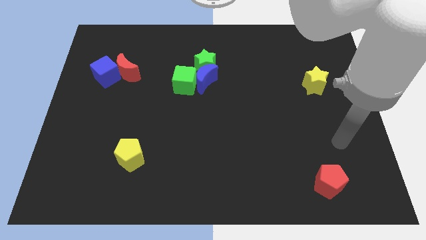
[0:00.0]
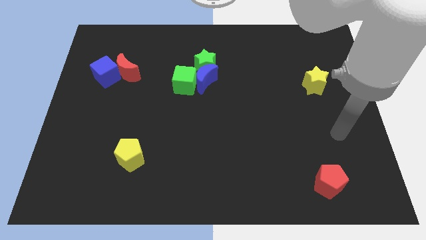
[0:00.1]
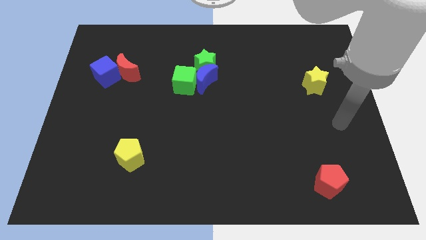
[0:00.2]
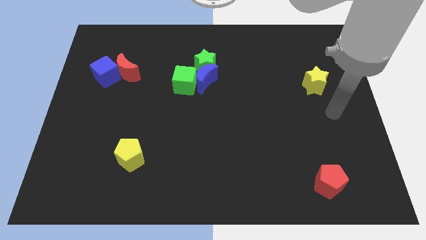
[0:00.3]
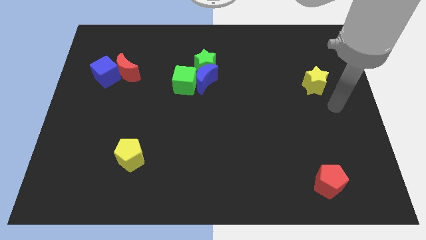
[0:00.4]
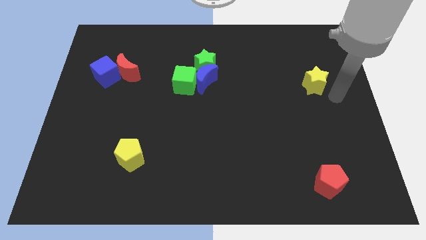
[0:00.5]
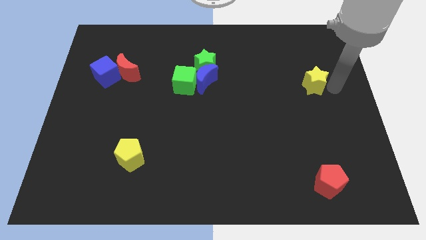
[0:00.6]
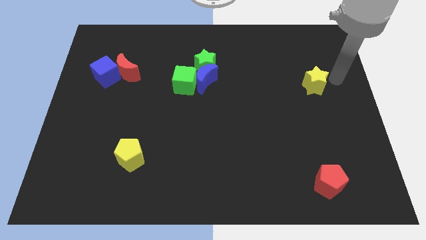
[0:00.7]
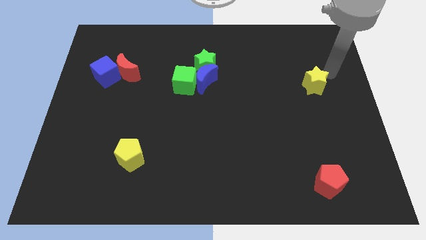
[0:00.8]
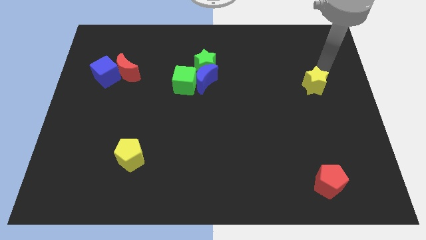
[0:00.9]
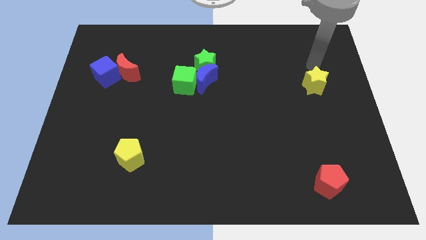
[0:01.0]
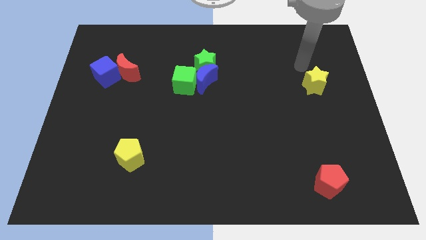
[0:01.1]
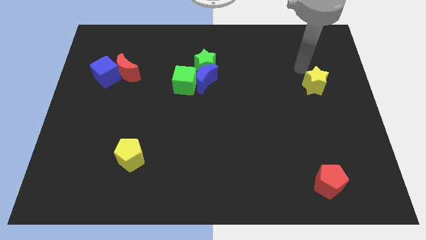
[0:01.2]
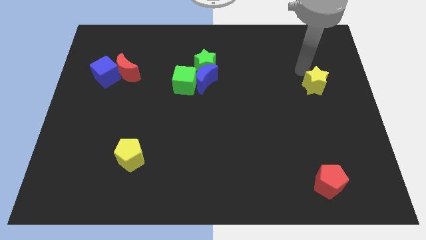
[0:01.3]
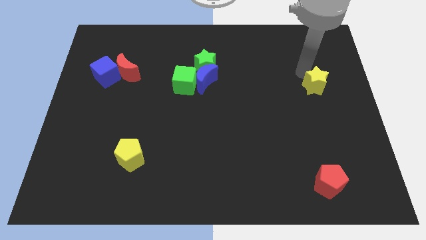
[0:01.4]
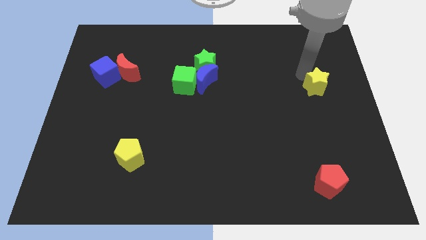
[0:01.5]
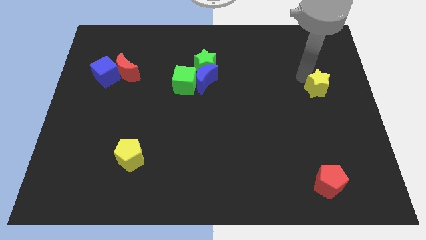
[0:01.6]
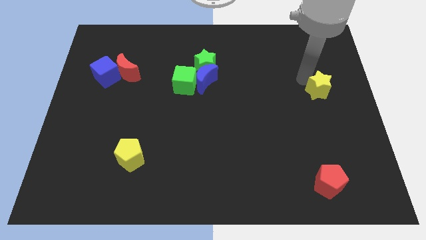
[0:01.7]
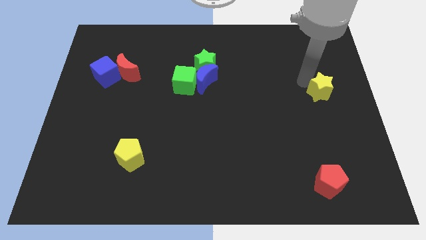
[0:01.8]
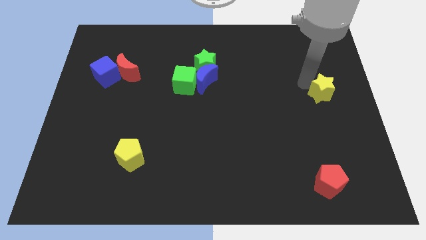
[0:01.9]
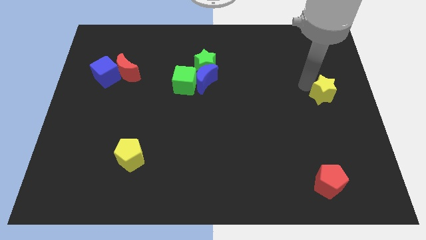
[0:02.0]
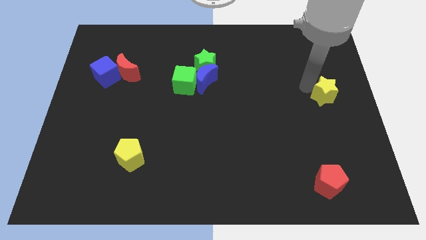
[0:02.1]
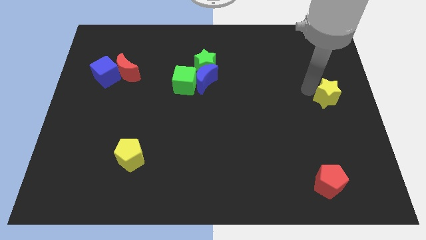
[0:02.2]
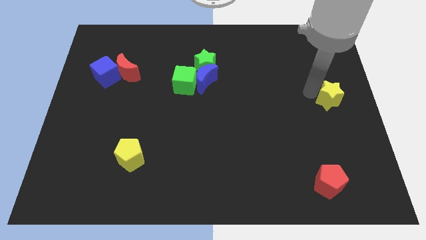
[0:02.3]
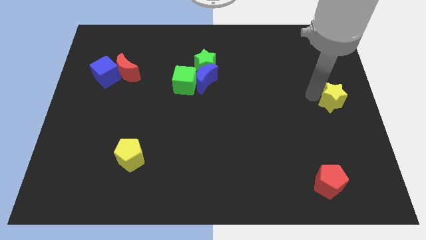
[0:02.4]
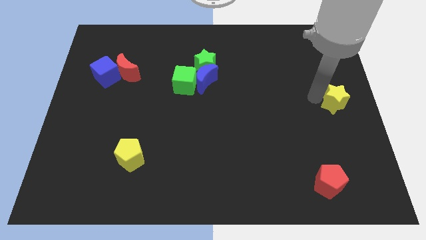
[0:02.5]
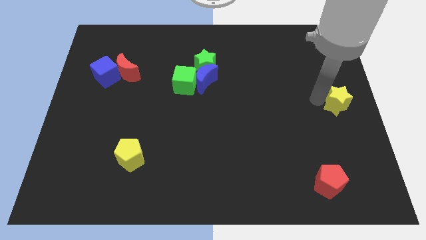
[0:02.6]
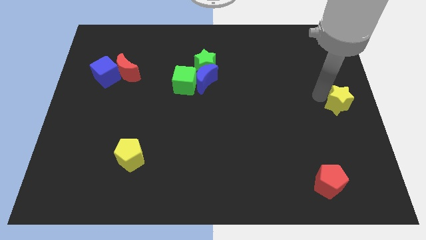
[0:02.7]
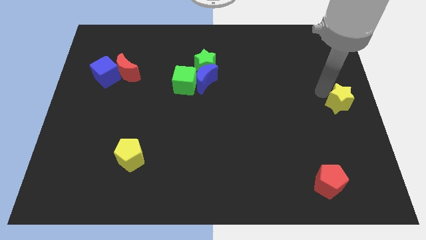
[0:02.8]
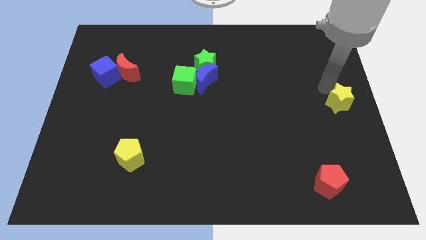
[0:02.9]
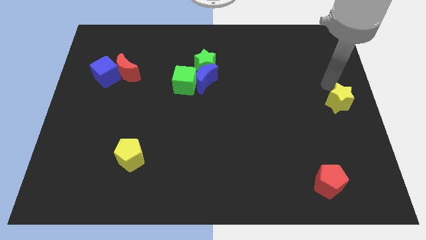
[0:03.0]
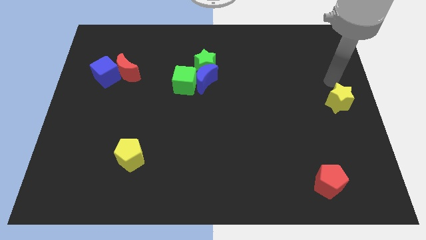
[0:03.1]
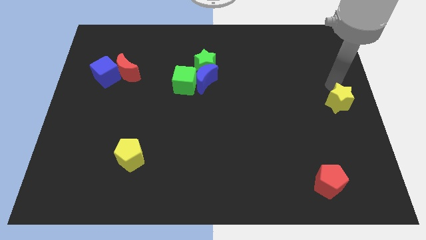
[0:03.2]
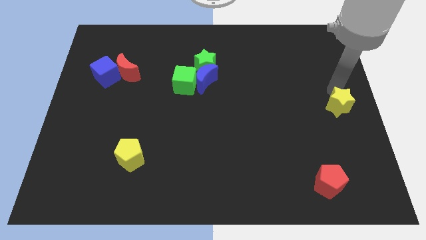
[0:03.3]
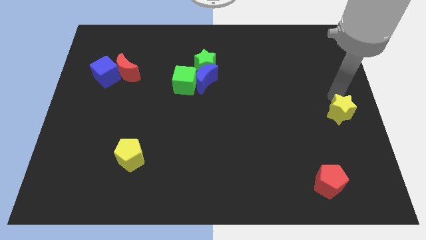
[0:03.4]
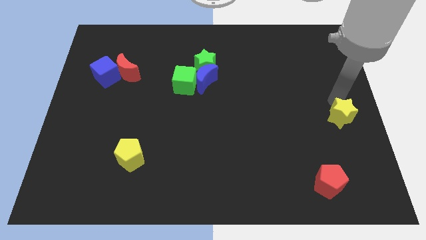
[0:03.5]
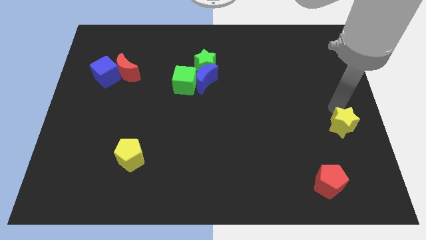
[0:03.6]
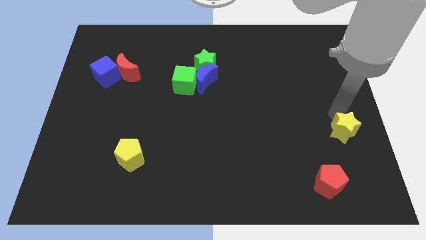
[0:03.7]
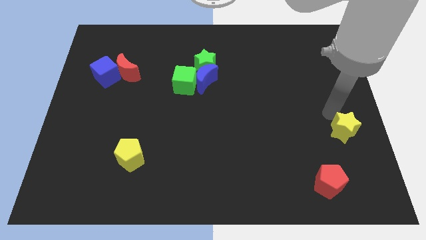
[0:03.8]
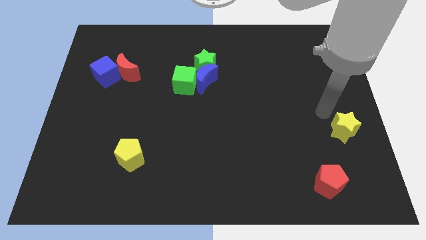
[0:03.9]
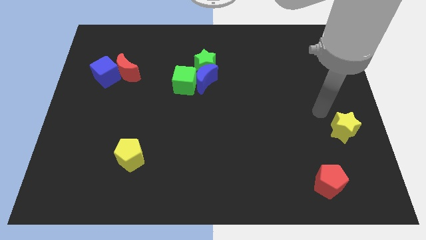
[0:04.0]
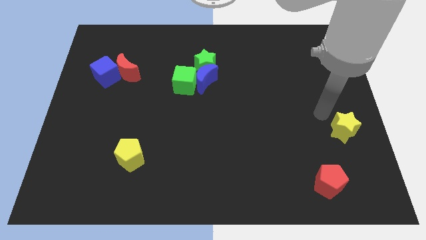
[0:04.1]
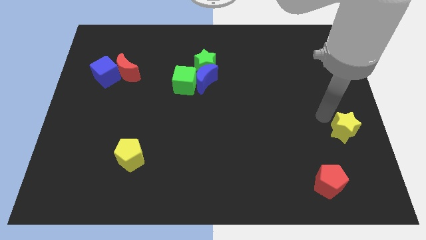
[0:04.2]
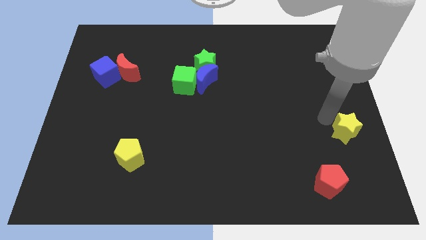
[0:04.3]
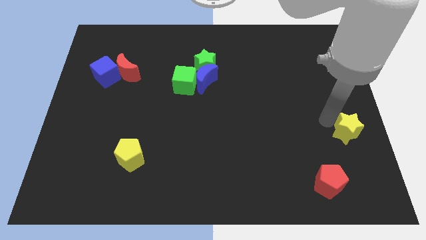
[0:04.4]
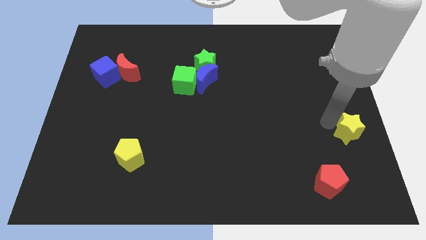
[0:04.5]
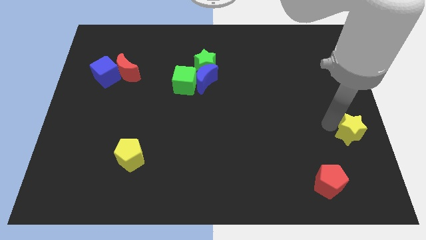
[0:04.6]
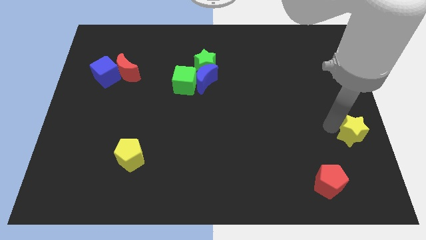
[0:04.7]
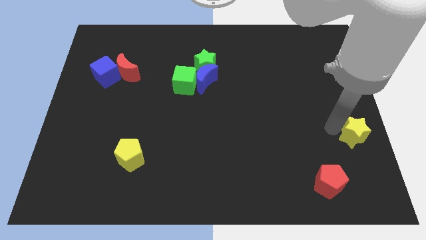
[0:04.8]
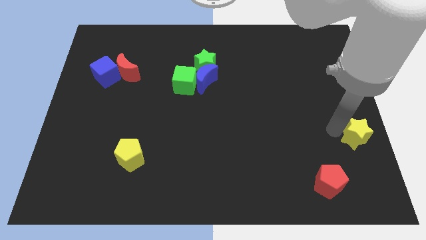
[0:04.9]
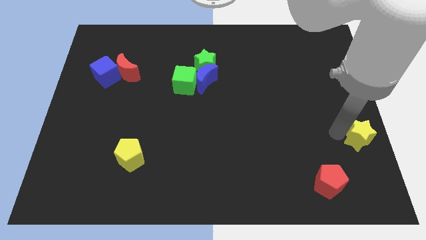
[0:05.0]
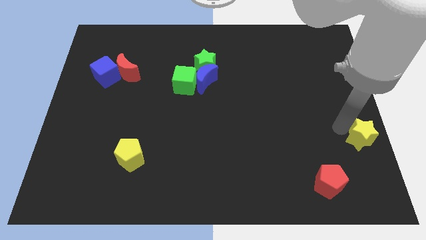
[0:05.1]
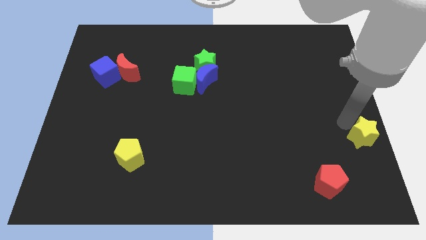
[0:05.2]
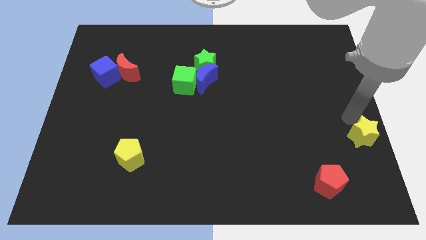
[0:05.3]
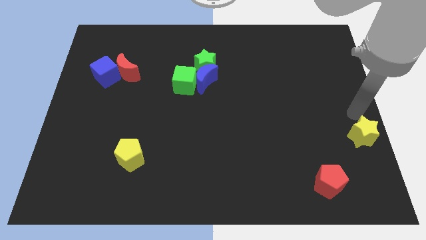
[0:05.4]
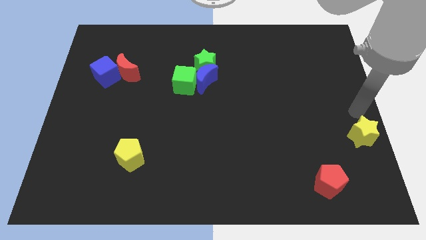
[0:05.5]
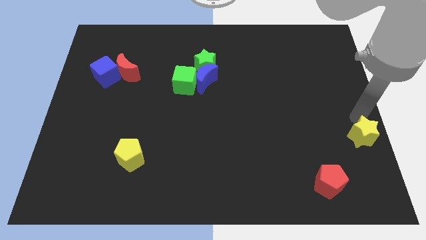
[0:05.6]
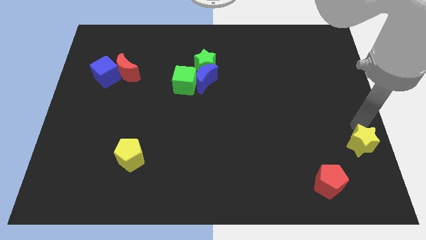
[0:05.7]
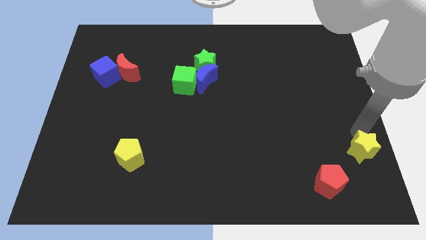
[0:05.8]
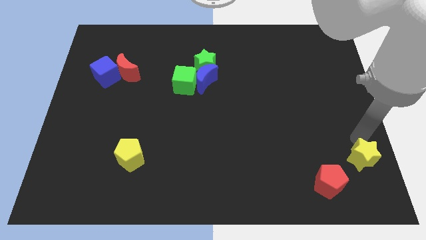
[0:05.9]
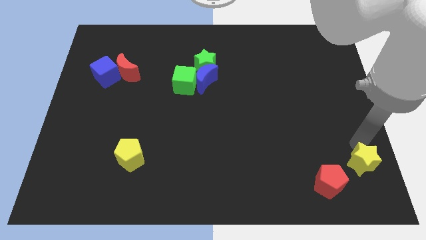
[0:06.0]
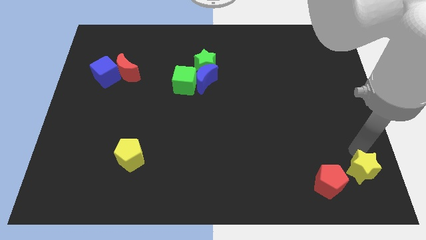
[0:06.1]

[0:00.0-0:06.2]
put the yellow star to the bottom right of the board
